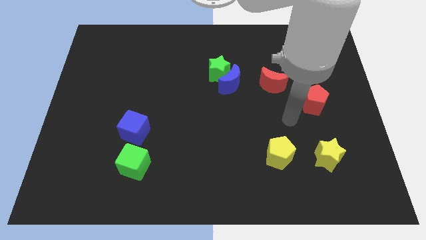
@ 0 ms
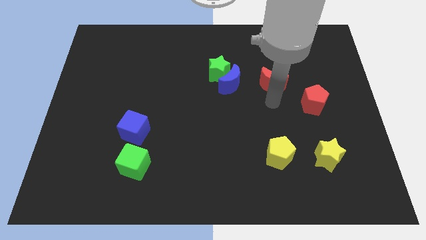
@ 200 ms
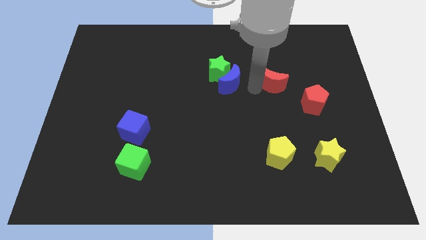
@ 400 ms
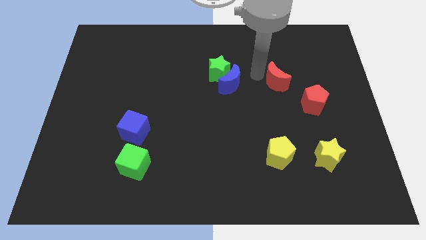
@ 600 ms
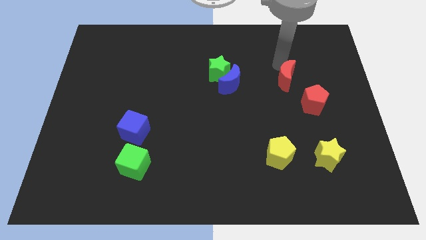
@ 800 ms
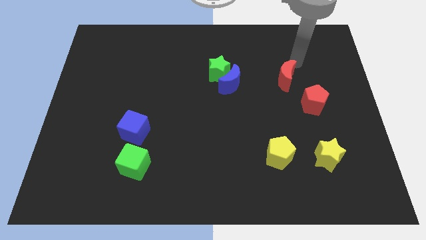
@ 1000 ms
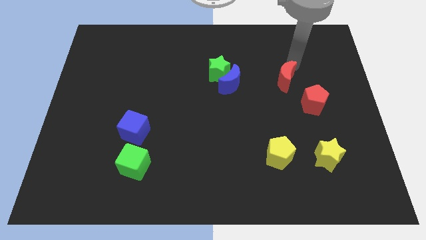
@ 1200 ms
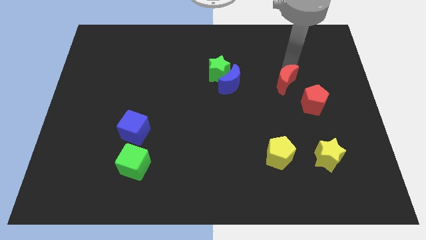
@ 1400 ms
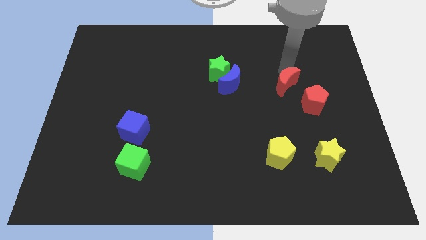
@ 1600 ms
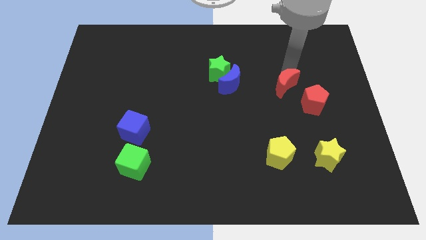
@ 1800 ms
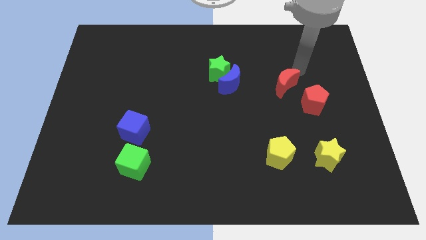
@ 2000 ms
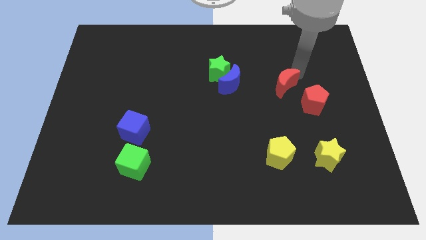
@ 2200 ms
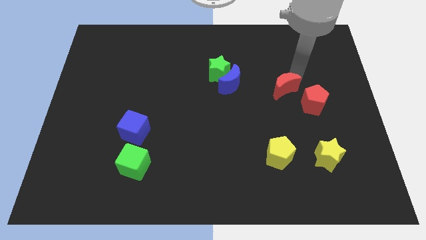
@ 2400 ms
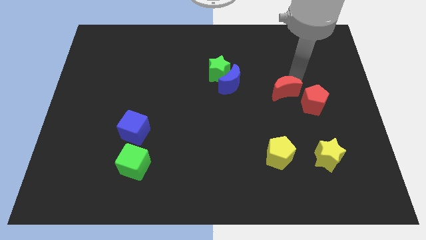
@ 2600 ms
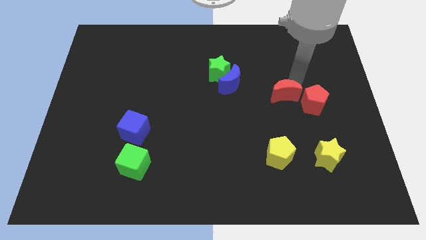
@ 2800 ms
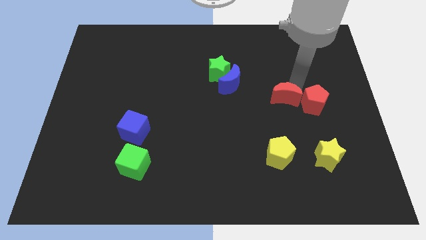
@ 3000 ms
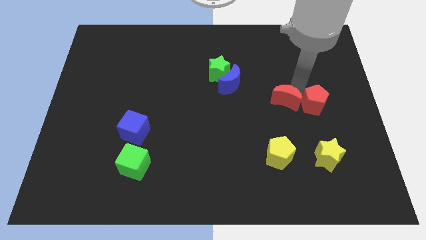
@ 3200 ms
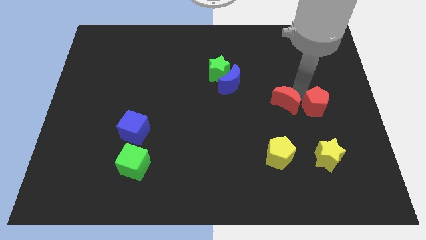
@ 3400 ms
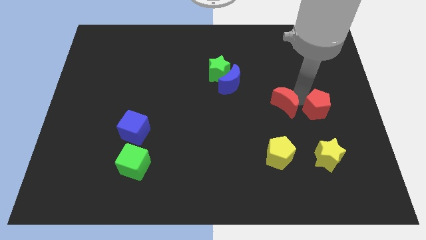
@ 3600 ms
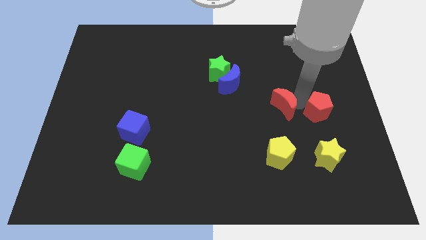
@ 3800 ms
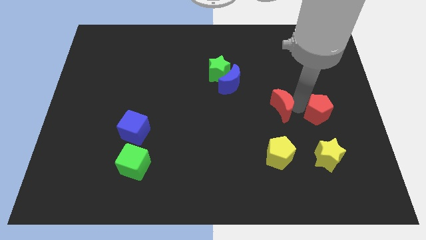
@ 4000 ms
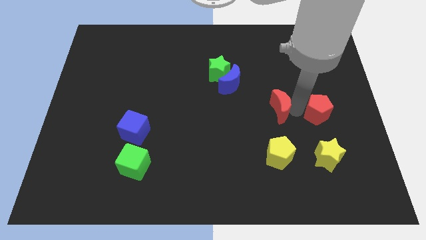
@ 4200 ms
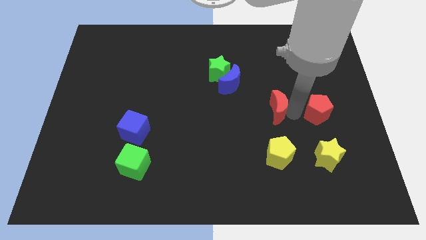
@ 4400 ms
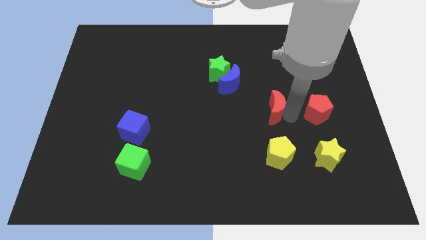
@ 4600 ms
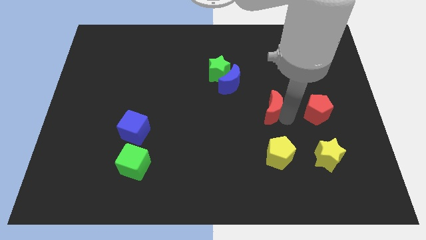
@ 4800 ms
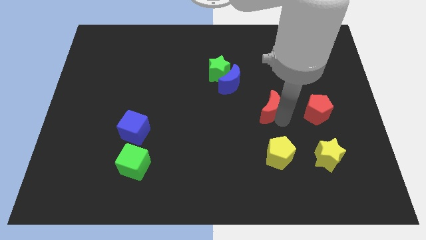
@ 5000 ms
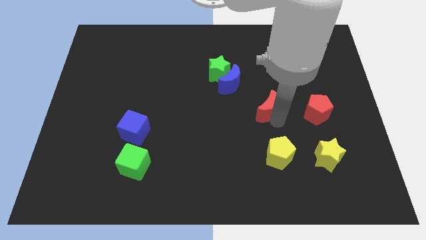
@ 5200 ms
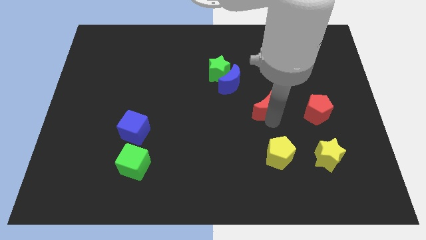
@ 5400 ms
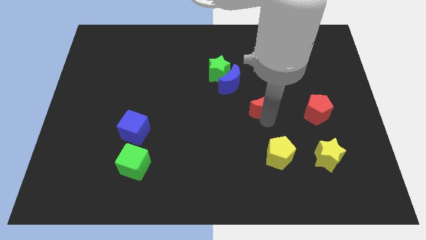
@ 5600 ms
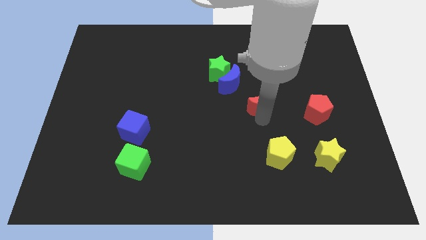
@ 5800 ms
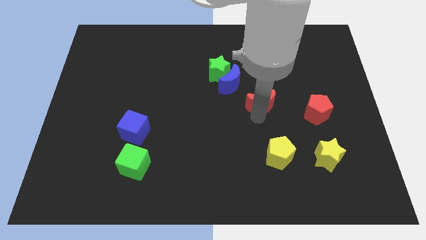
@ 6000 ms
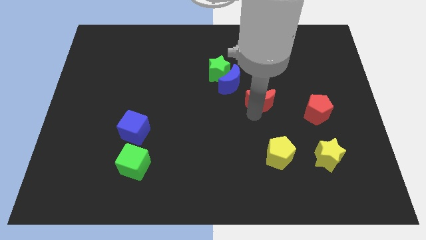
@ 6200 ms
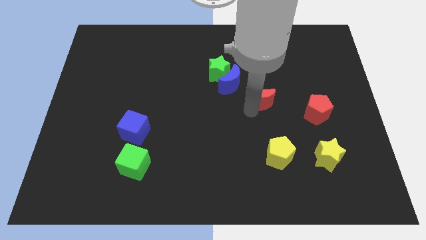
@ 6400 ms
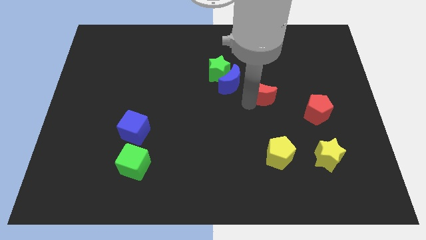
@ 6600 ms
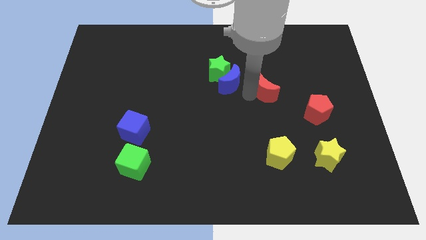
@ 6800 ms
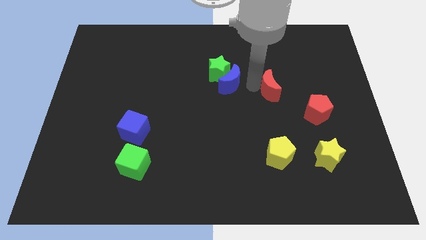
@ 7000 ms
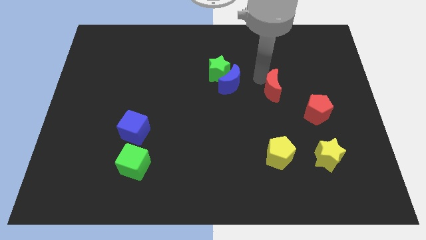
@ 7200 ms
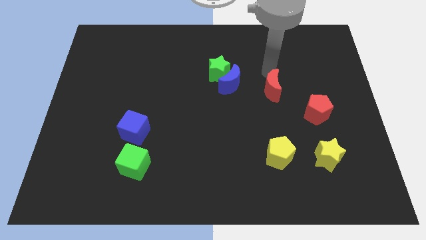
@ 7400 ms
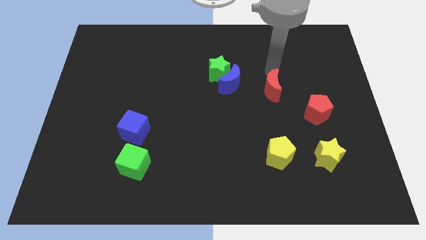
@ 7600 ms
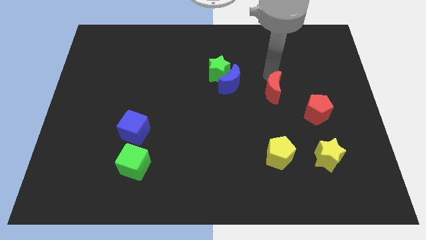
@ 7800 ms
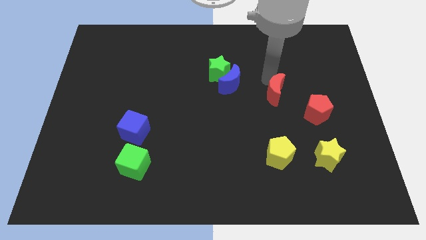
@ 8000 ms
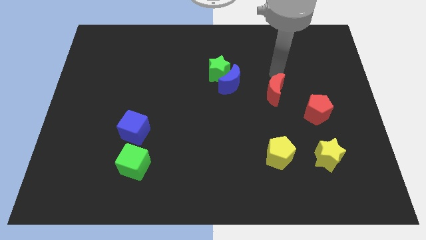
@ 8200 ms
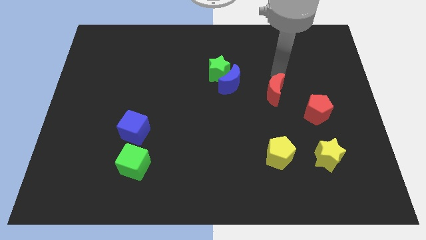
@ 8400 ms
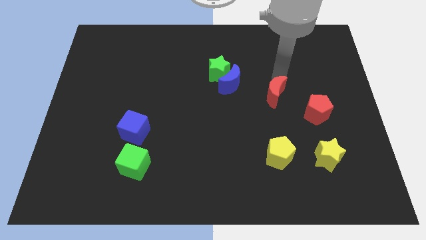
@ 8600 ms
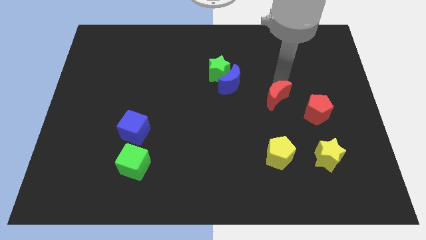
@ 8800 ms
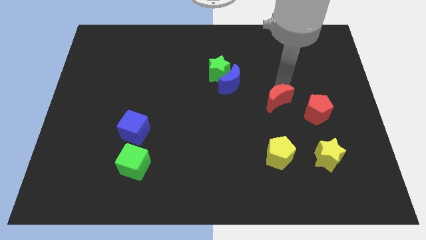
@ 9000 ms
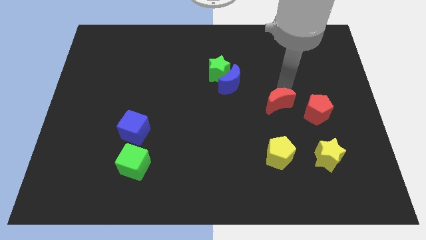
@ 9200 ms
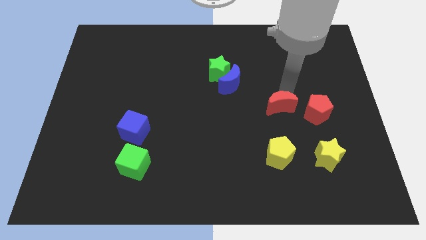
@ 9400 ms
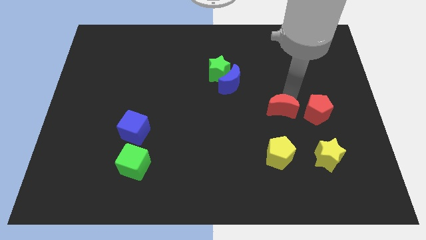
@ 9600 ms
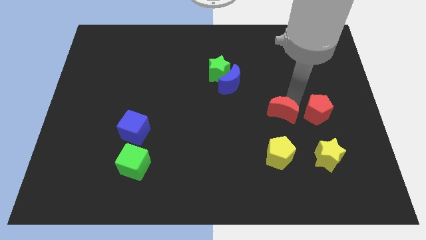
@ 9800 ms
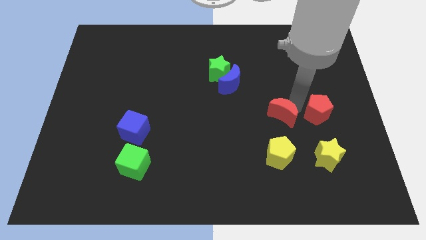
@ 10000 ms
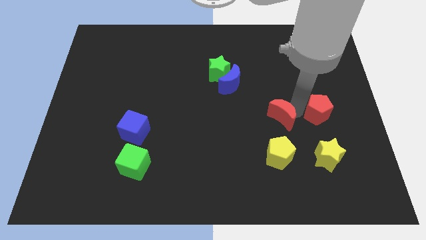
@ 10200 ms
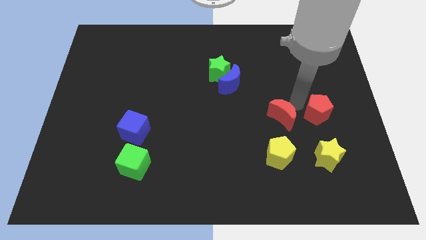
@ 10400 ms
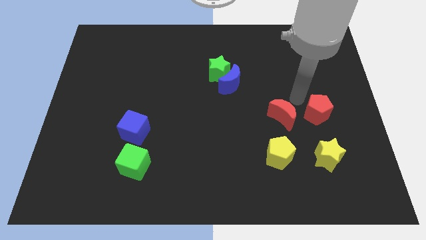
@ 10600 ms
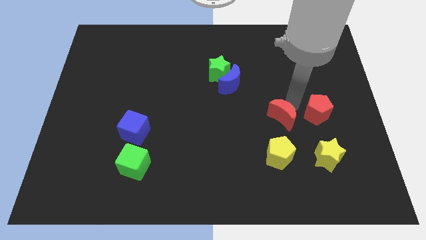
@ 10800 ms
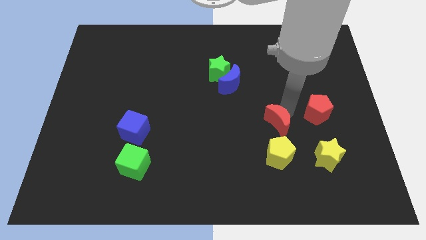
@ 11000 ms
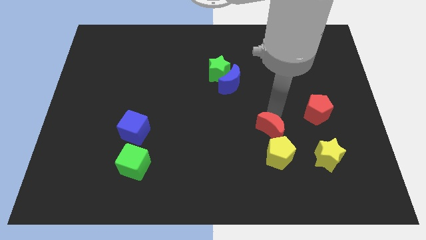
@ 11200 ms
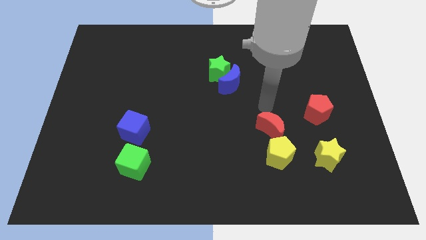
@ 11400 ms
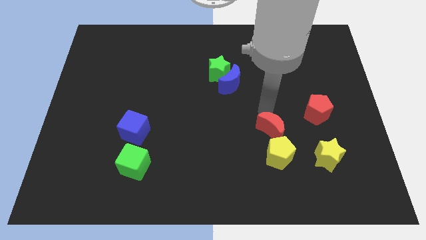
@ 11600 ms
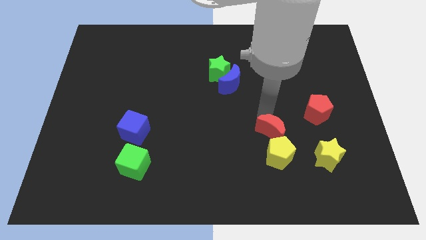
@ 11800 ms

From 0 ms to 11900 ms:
push the red moon close to the yellow pentagon

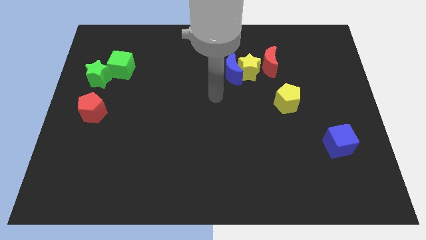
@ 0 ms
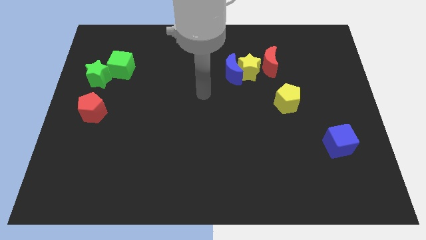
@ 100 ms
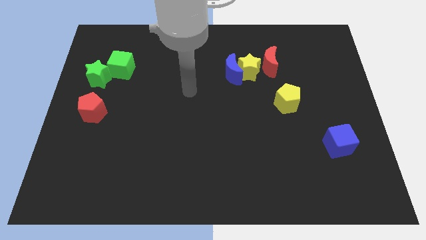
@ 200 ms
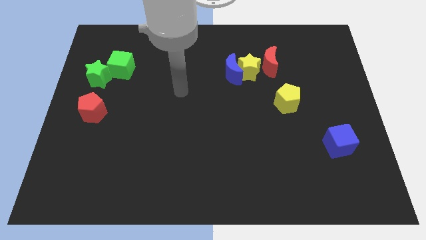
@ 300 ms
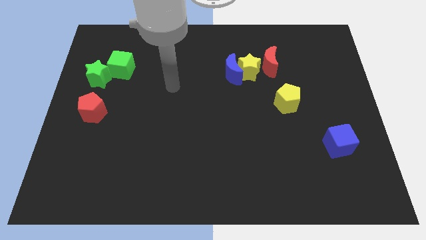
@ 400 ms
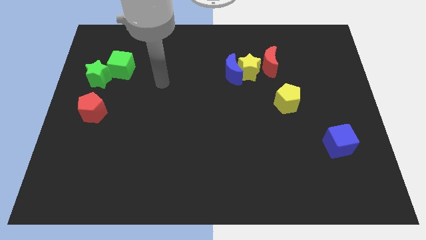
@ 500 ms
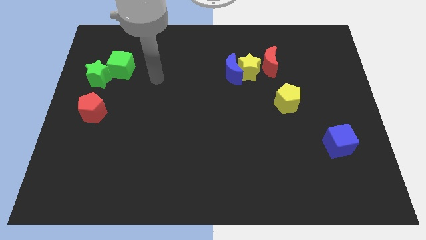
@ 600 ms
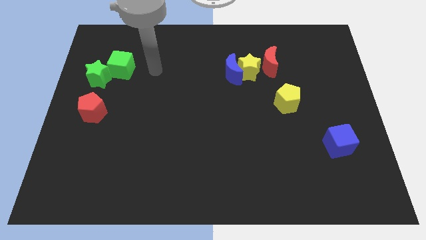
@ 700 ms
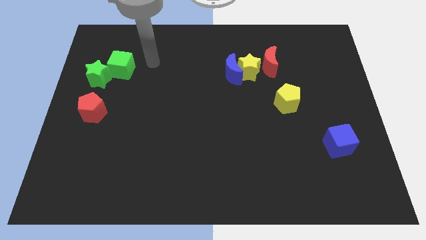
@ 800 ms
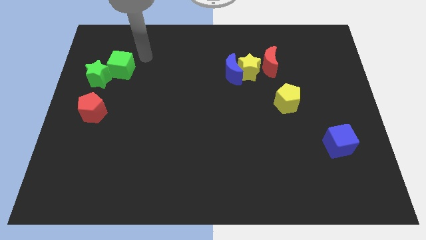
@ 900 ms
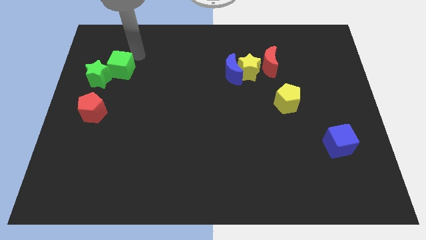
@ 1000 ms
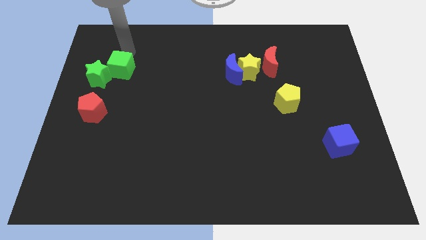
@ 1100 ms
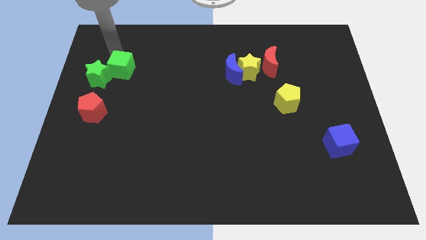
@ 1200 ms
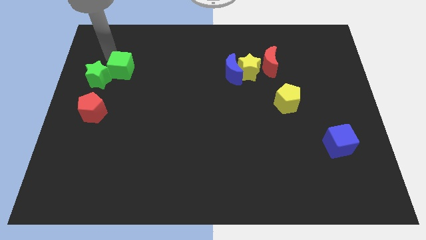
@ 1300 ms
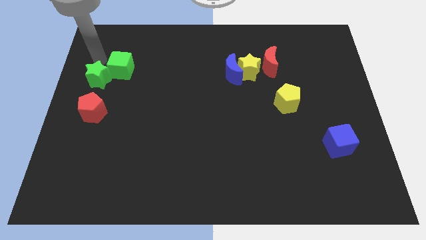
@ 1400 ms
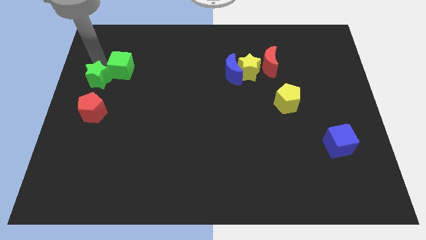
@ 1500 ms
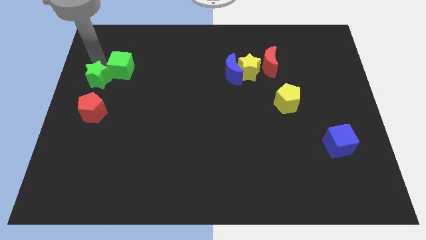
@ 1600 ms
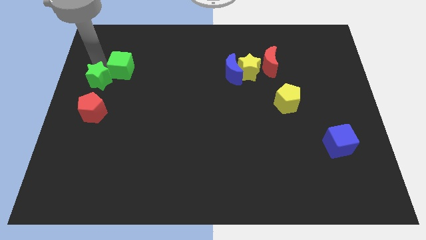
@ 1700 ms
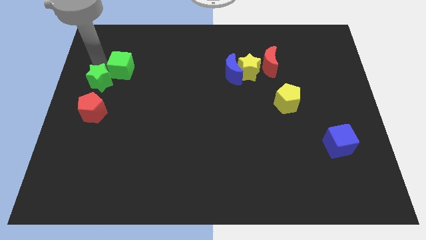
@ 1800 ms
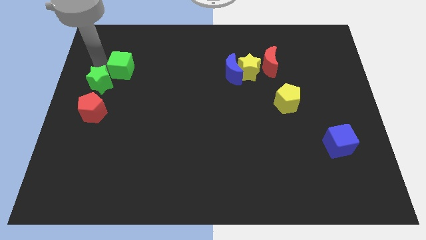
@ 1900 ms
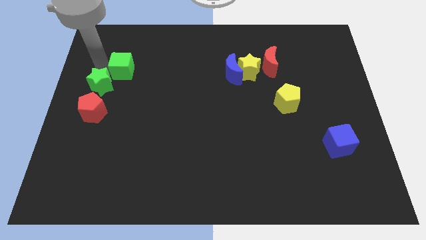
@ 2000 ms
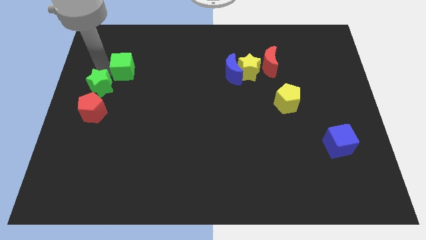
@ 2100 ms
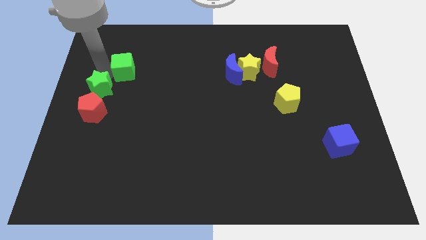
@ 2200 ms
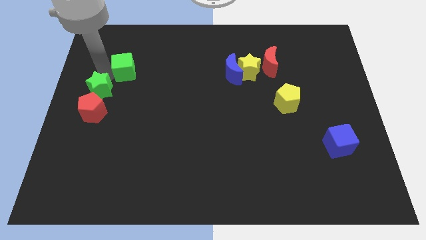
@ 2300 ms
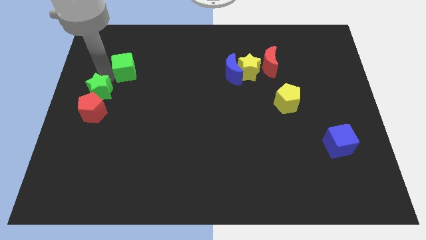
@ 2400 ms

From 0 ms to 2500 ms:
move the green star next to the red pentagon
